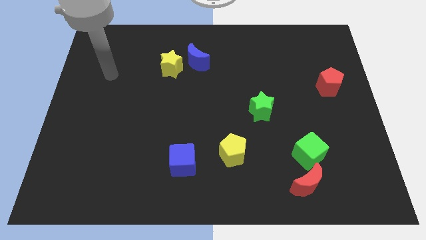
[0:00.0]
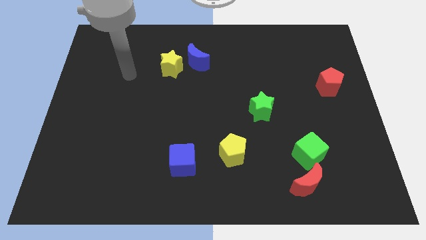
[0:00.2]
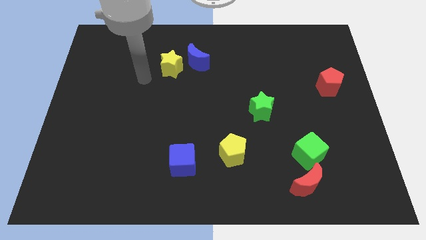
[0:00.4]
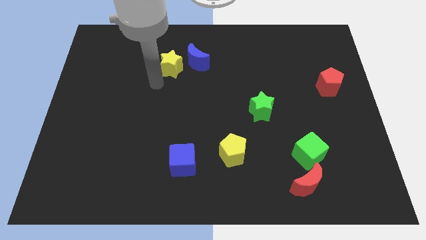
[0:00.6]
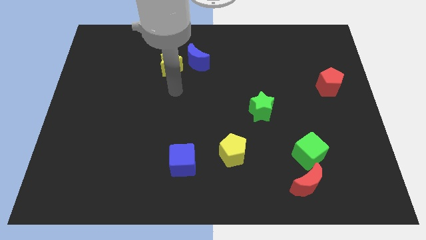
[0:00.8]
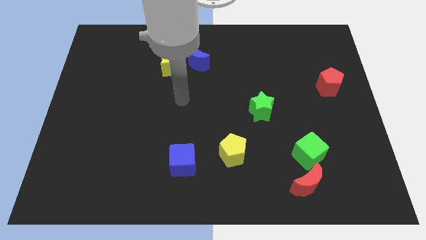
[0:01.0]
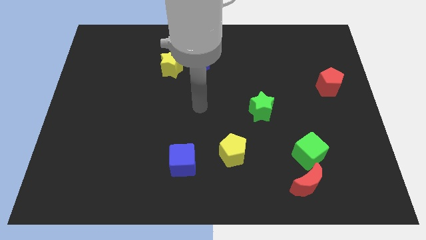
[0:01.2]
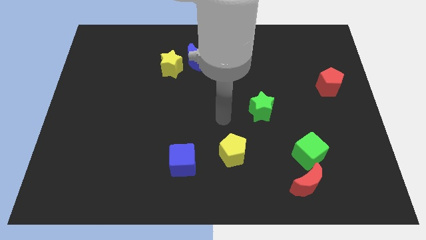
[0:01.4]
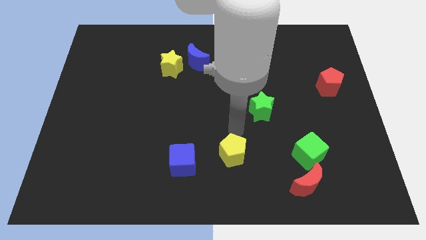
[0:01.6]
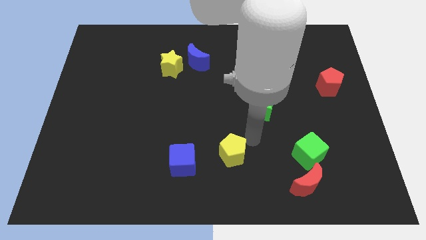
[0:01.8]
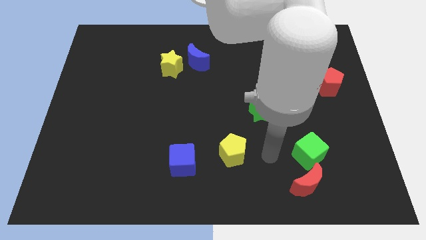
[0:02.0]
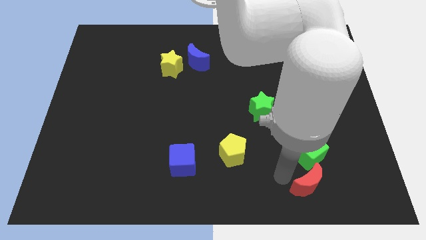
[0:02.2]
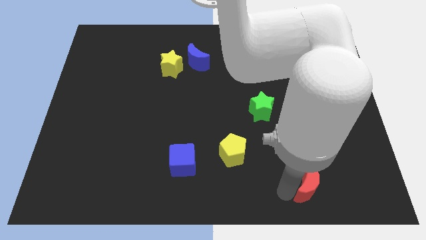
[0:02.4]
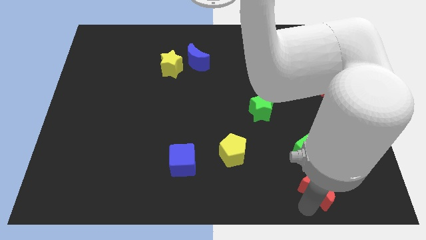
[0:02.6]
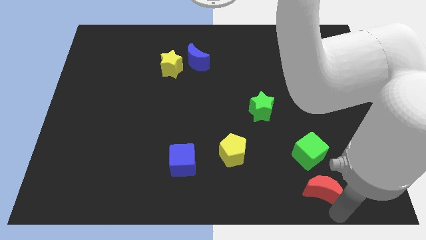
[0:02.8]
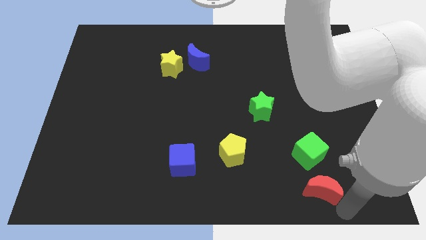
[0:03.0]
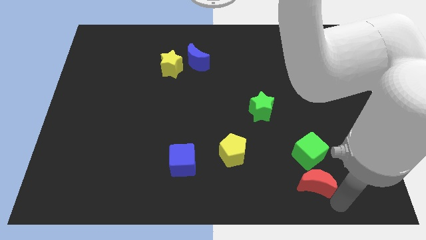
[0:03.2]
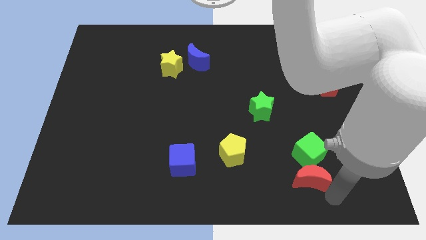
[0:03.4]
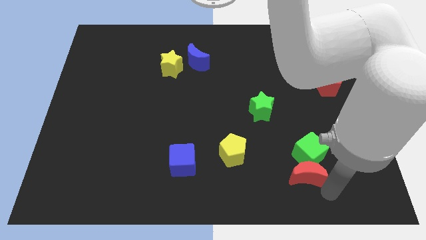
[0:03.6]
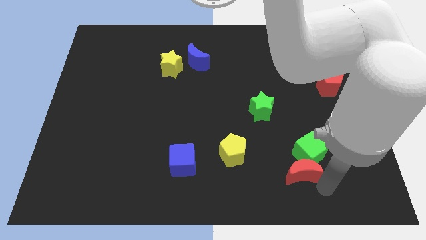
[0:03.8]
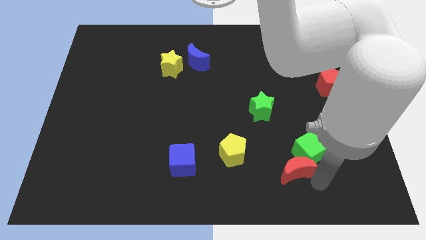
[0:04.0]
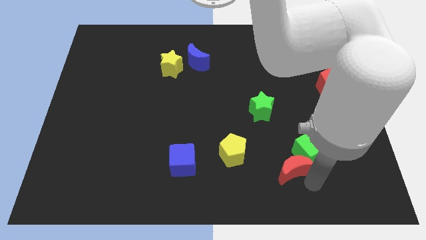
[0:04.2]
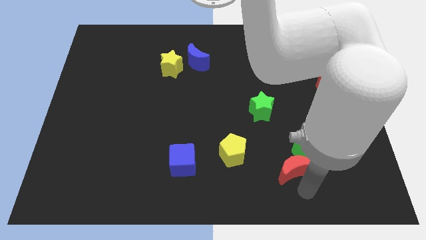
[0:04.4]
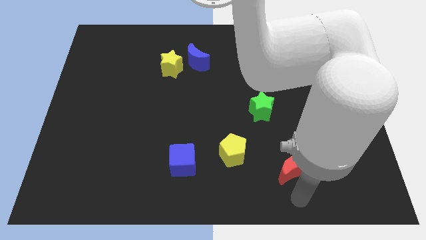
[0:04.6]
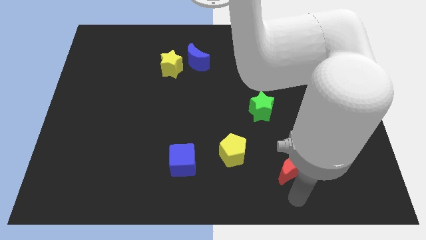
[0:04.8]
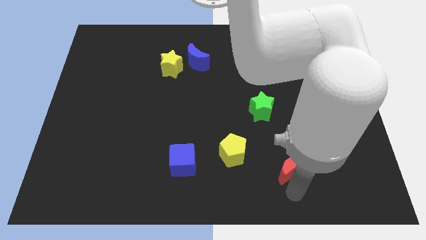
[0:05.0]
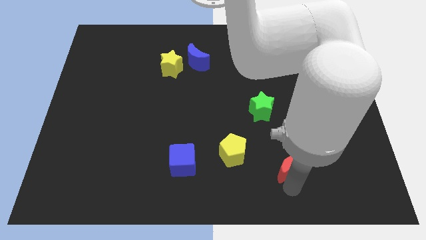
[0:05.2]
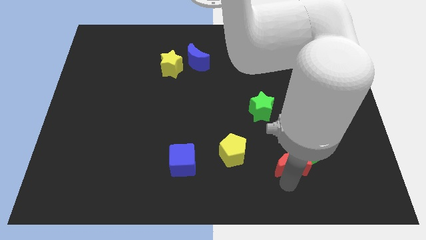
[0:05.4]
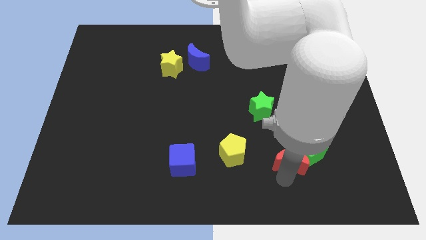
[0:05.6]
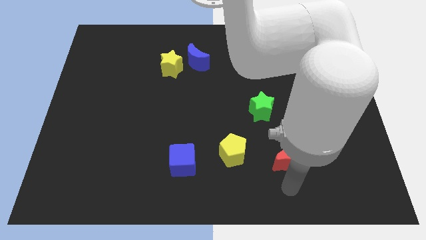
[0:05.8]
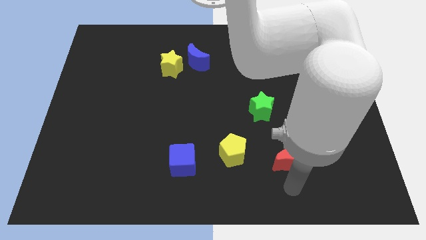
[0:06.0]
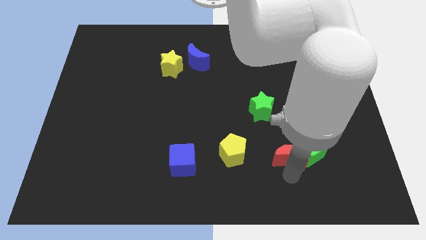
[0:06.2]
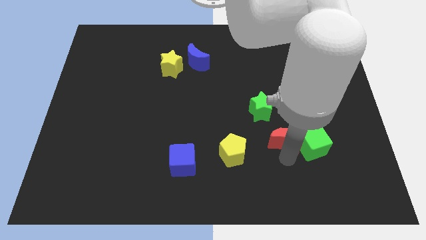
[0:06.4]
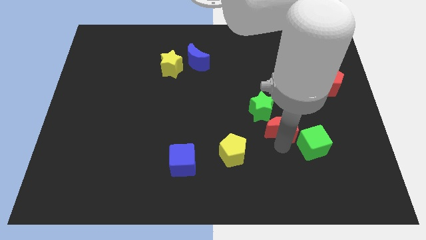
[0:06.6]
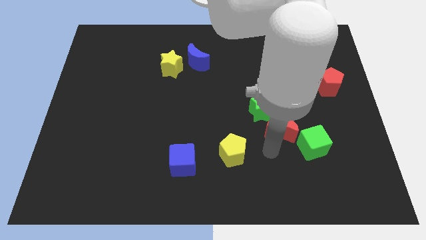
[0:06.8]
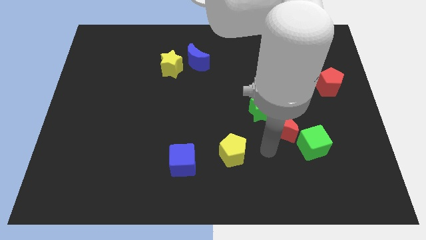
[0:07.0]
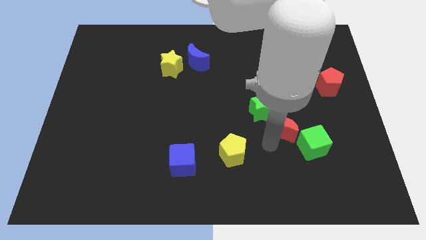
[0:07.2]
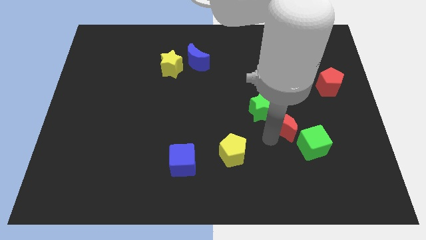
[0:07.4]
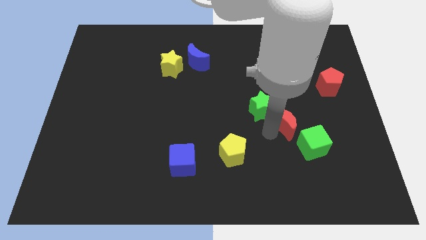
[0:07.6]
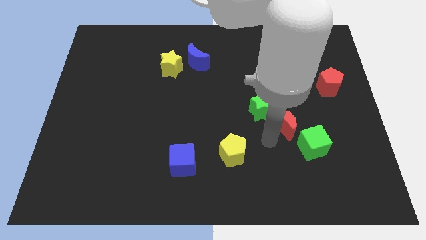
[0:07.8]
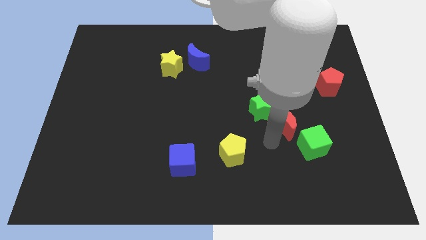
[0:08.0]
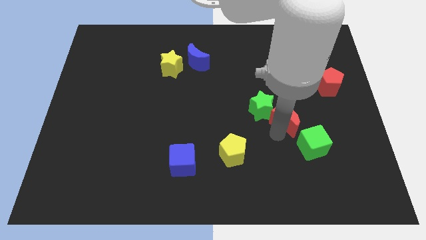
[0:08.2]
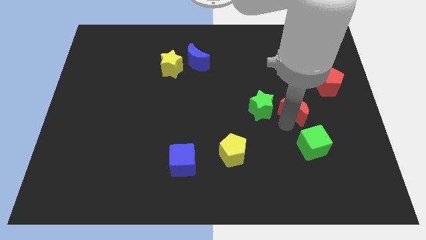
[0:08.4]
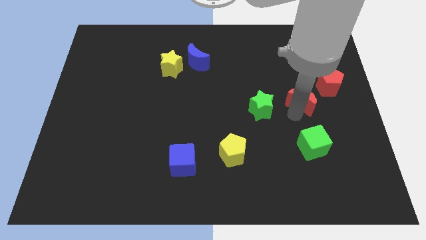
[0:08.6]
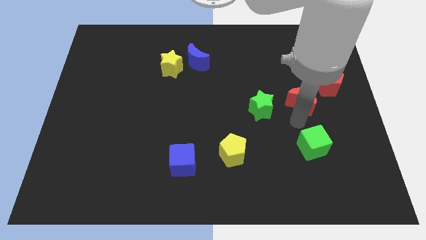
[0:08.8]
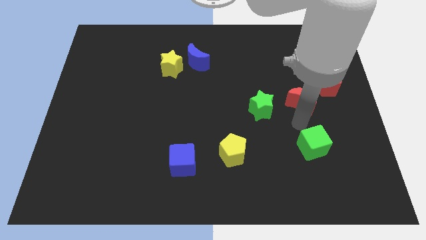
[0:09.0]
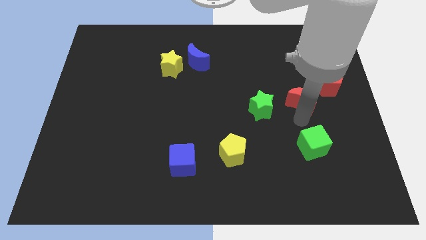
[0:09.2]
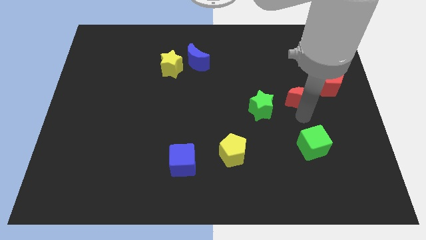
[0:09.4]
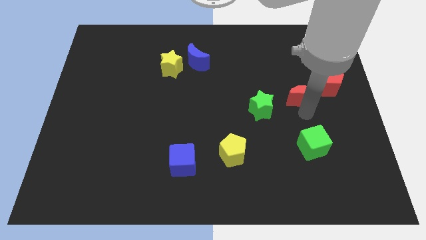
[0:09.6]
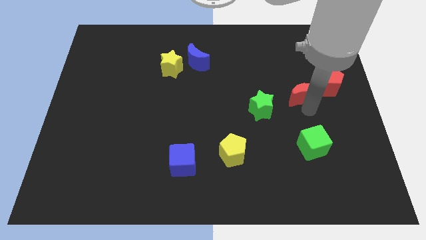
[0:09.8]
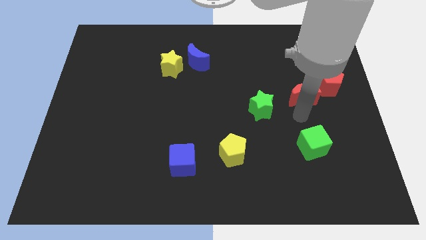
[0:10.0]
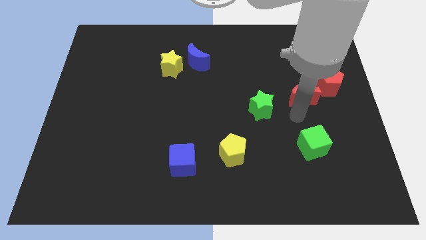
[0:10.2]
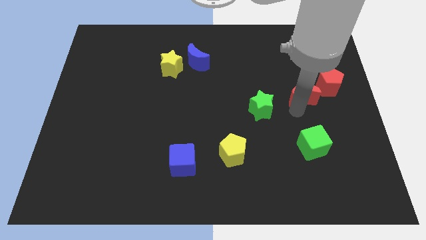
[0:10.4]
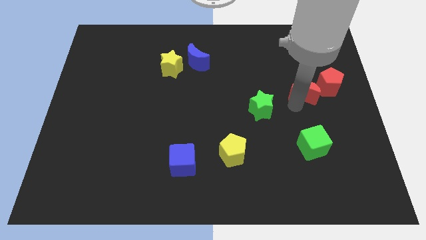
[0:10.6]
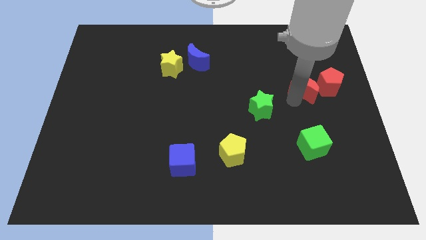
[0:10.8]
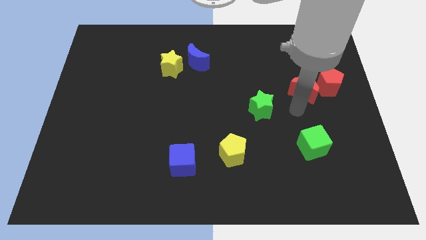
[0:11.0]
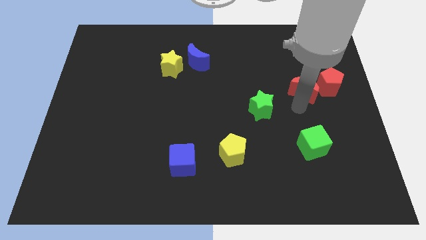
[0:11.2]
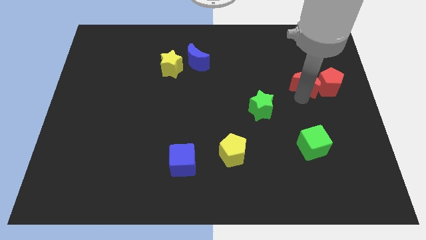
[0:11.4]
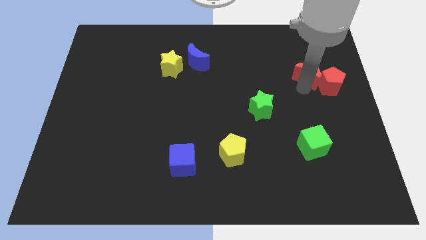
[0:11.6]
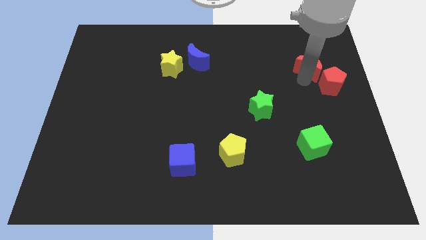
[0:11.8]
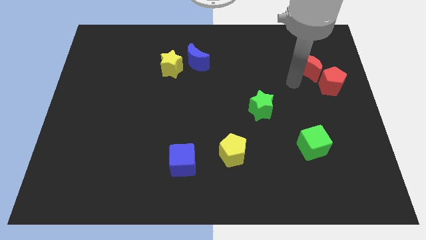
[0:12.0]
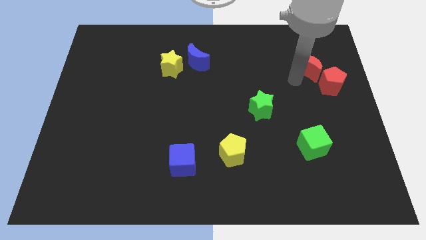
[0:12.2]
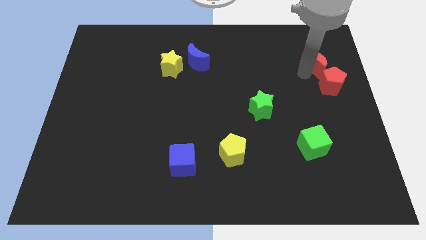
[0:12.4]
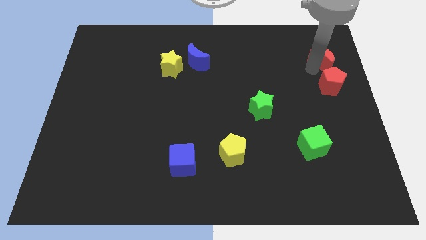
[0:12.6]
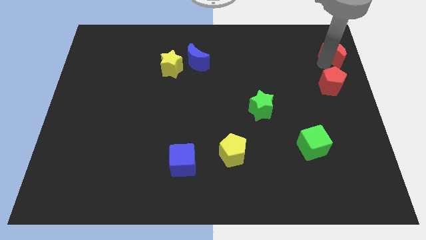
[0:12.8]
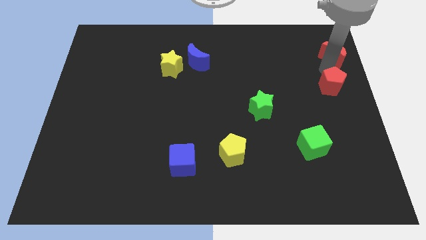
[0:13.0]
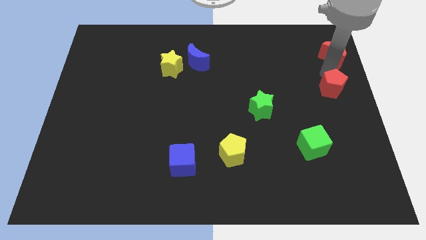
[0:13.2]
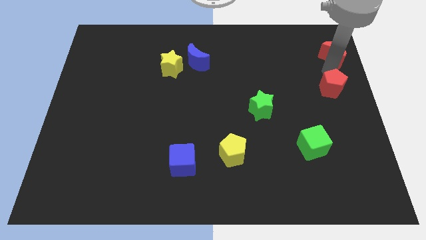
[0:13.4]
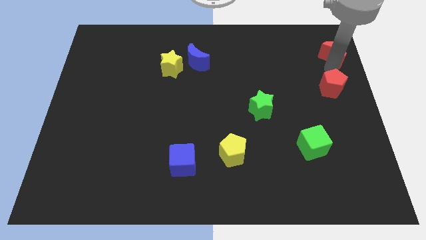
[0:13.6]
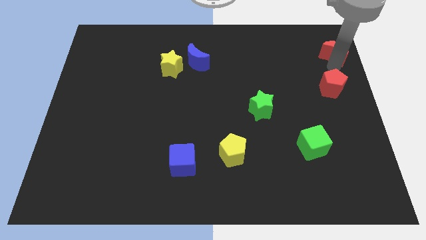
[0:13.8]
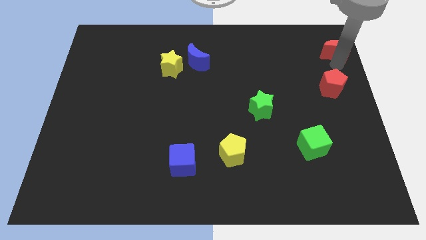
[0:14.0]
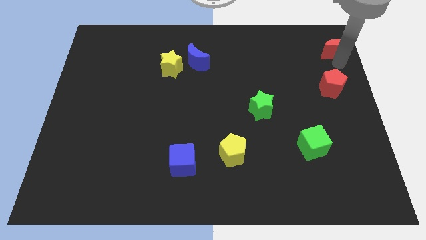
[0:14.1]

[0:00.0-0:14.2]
push the red moon to the upper right corner
